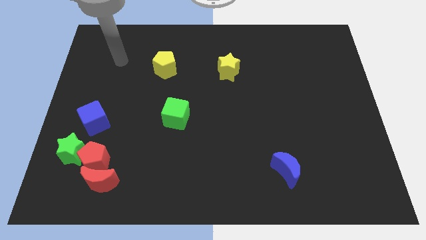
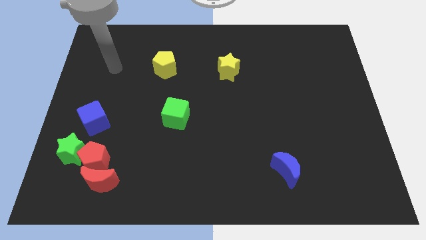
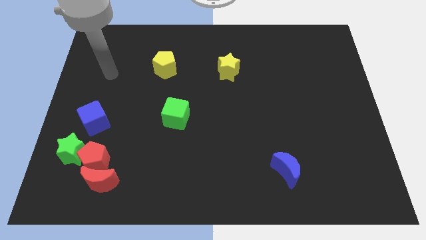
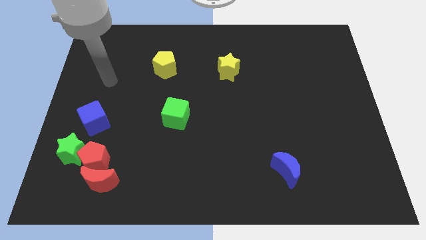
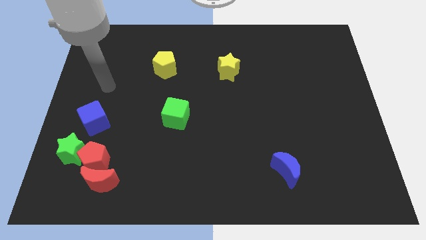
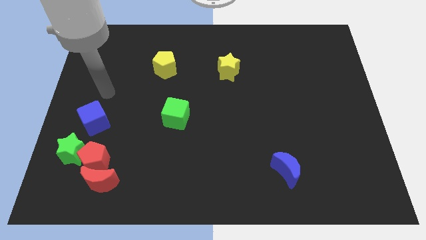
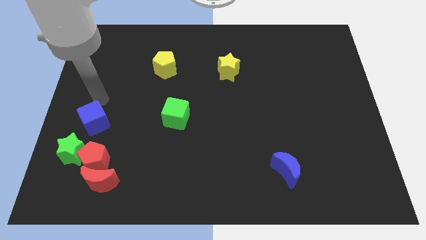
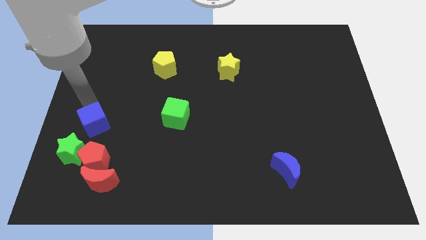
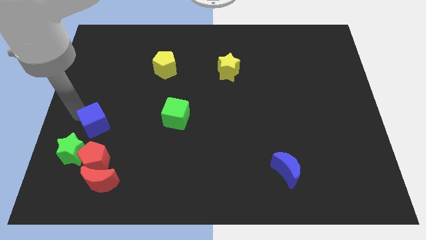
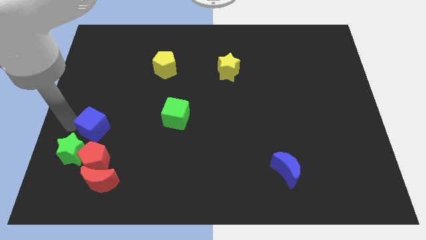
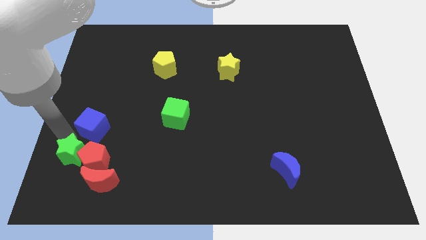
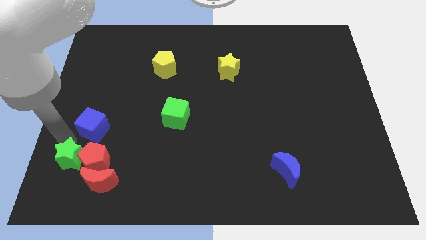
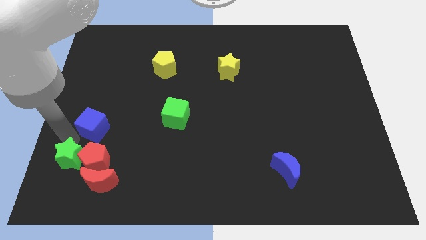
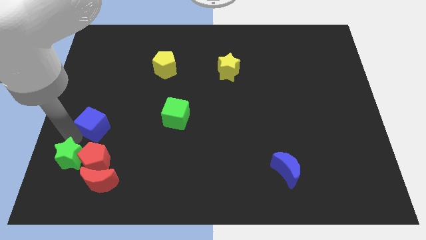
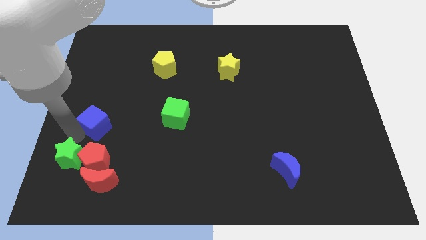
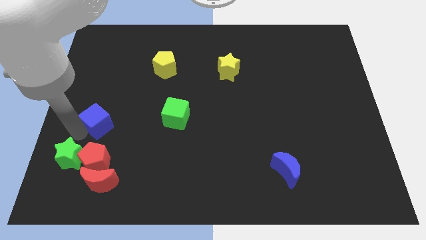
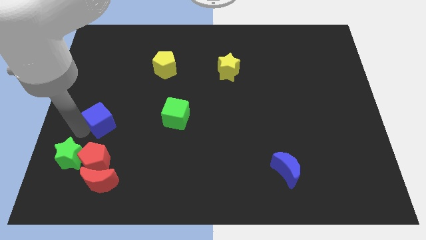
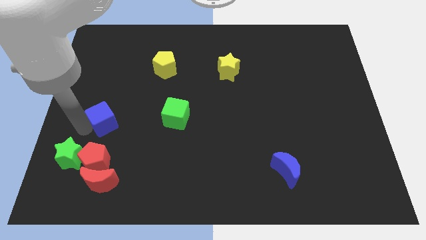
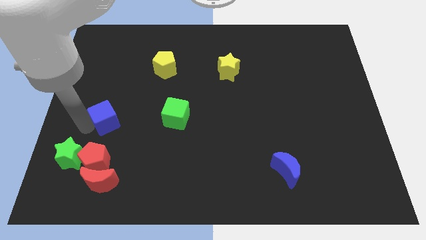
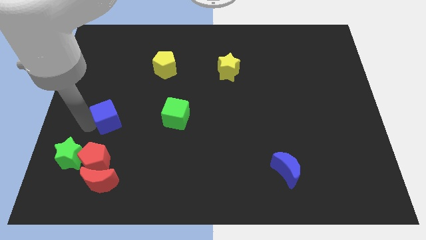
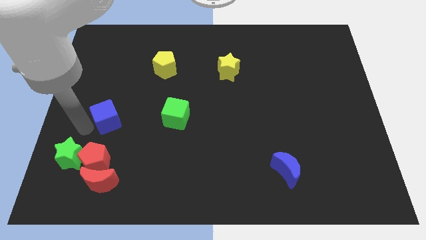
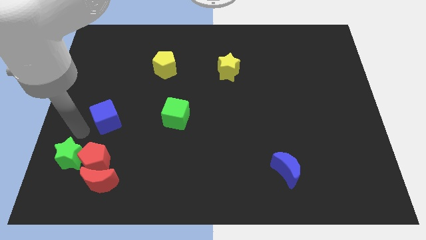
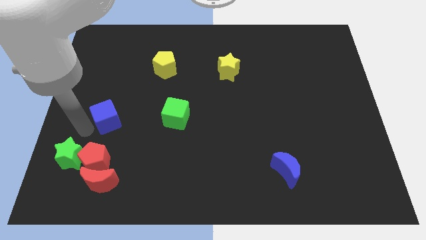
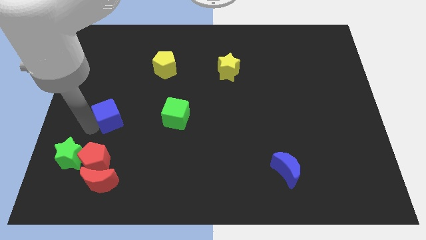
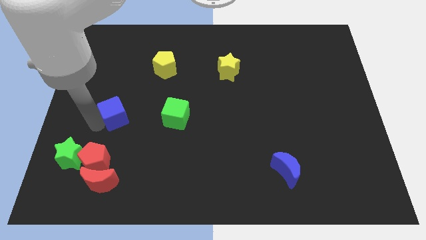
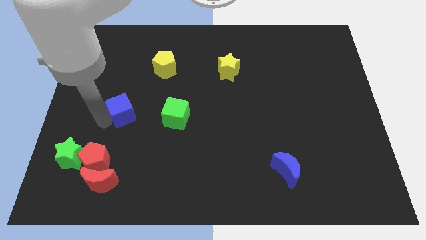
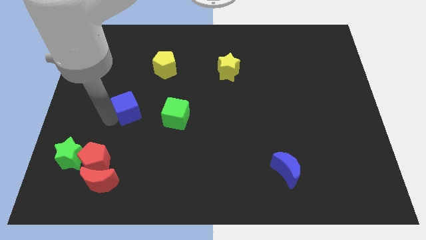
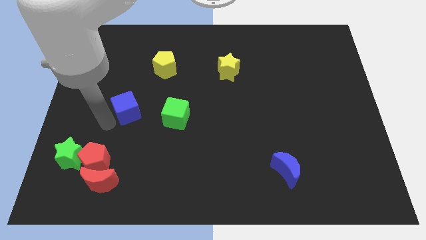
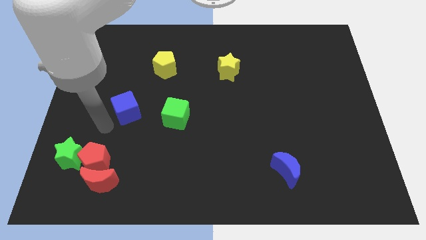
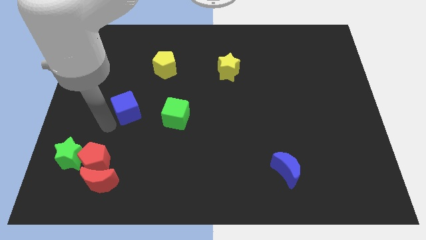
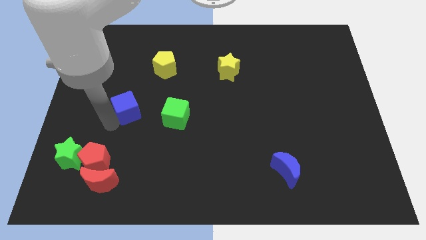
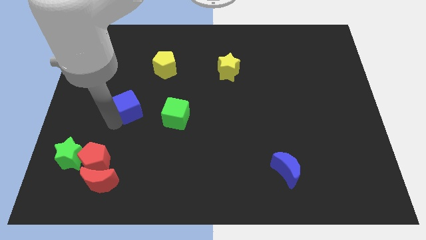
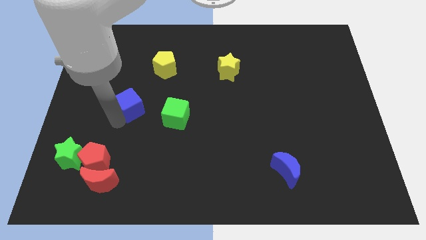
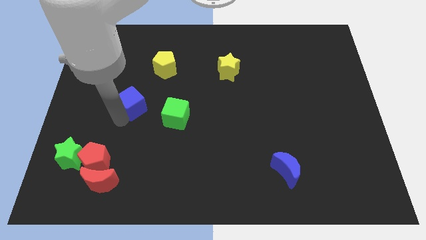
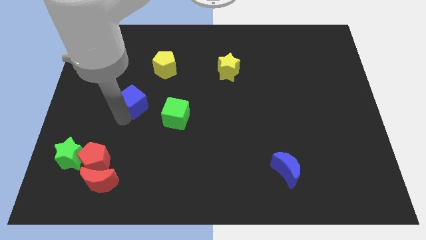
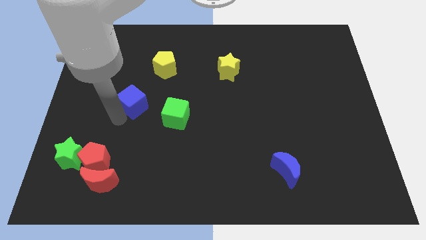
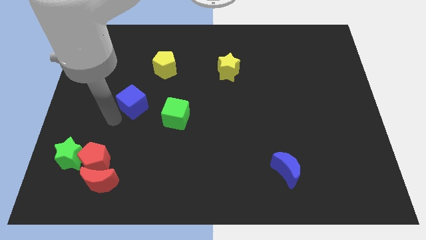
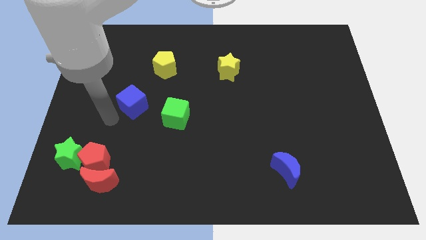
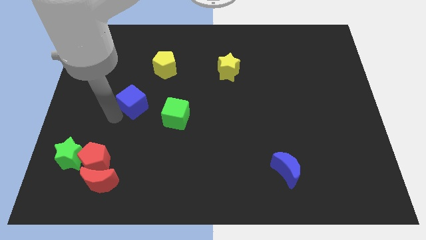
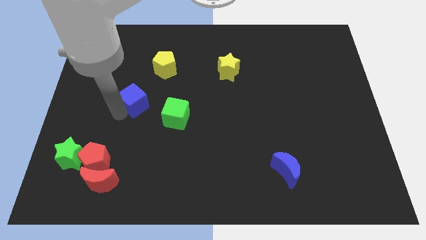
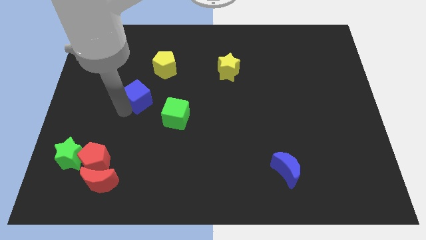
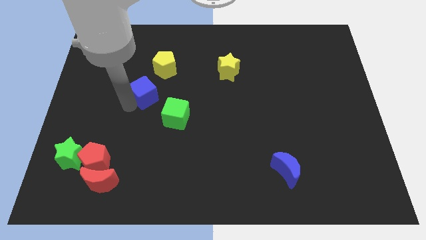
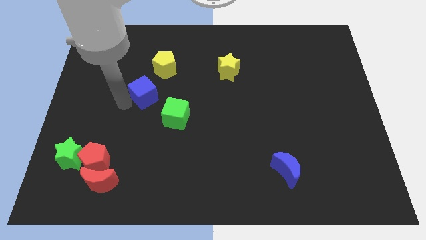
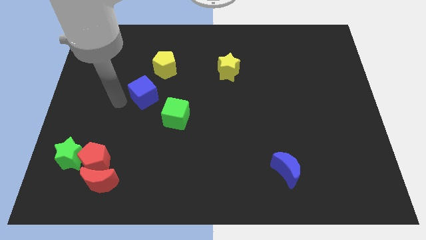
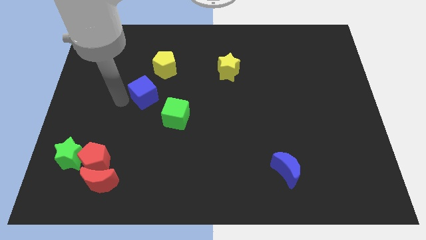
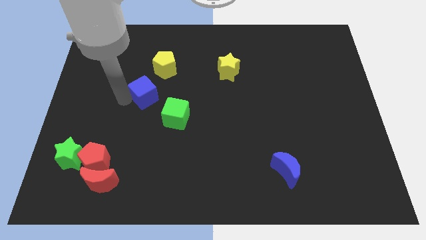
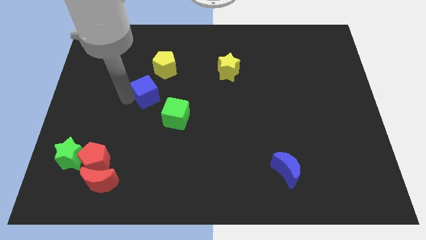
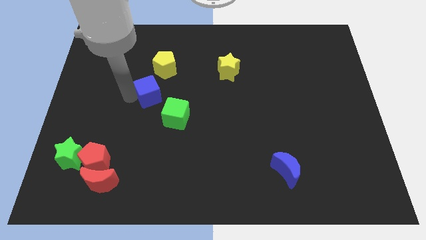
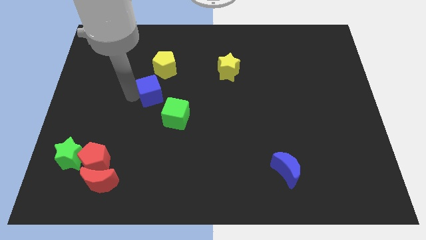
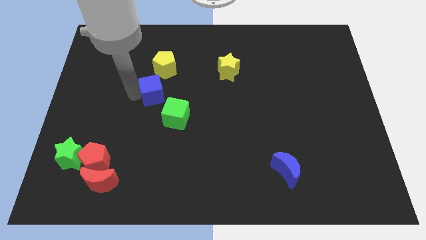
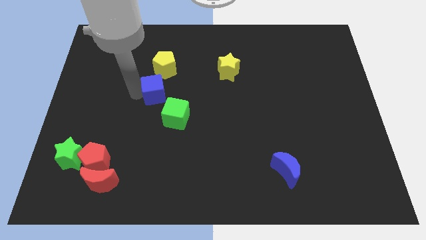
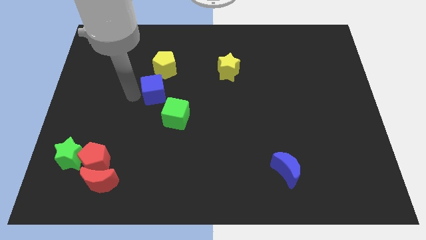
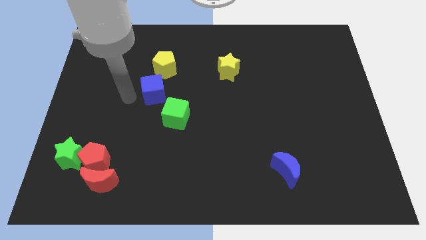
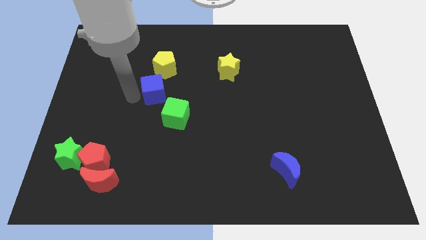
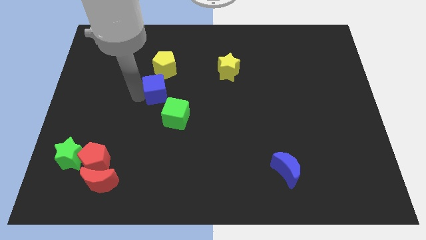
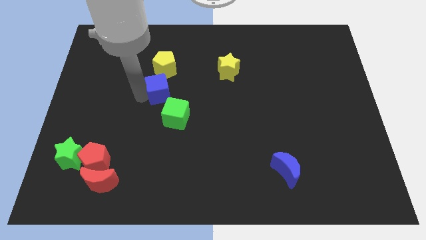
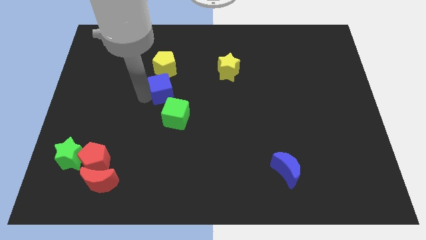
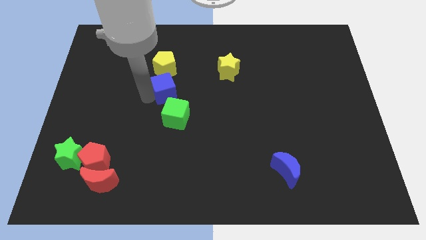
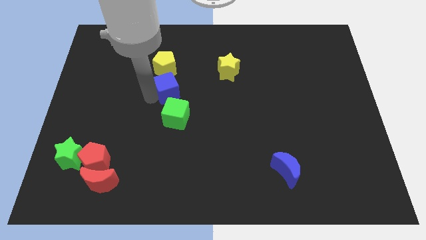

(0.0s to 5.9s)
move the blue cube to the bottom right side of the yellow pentagon

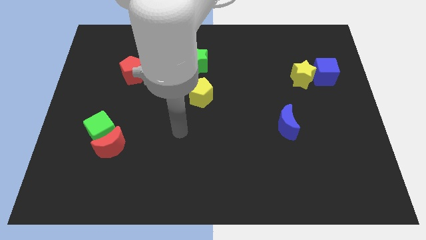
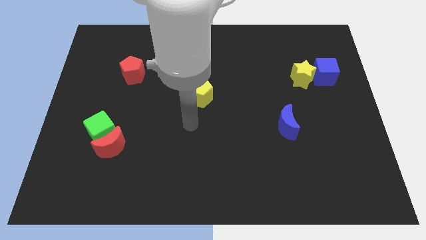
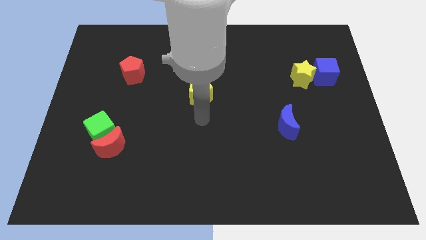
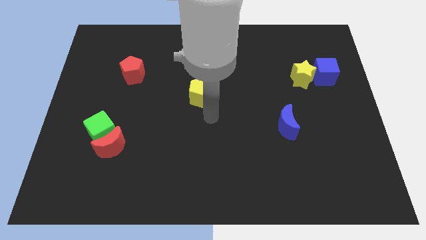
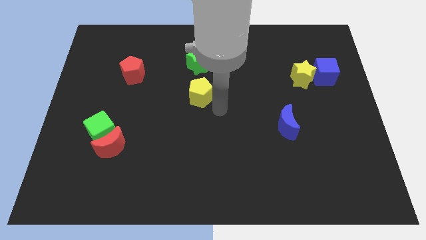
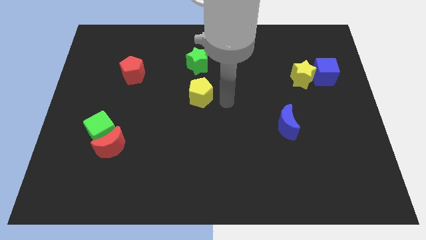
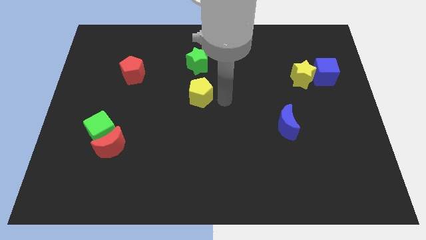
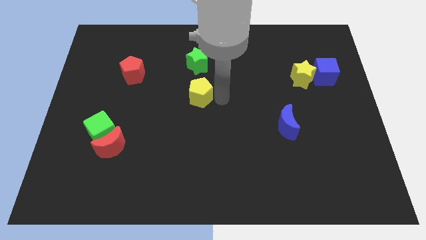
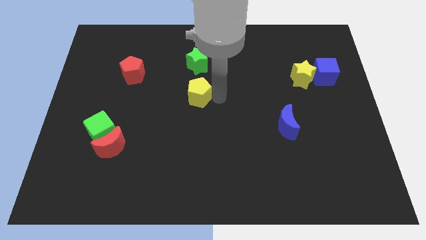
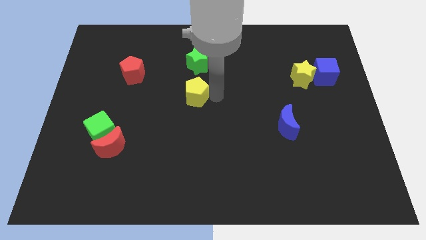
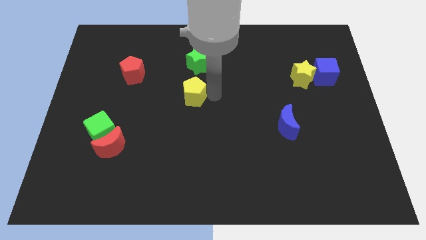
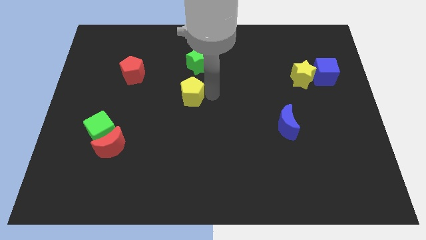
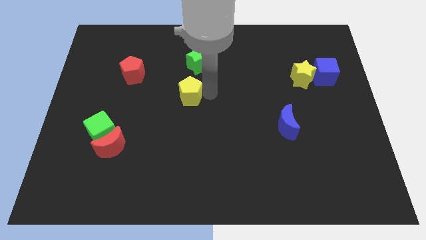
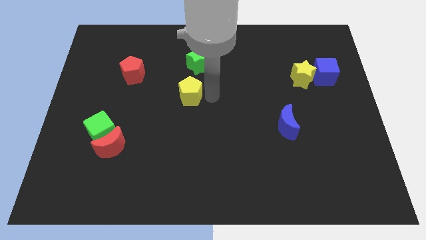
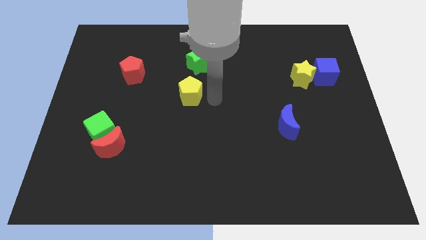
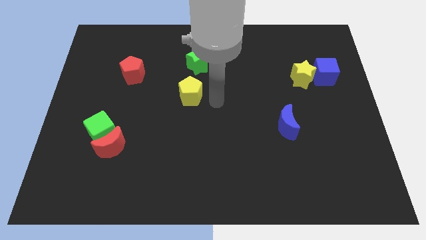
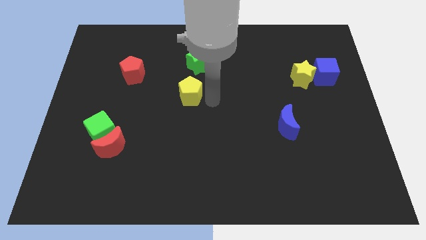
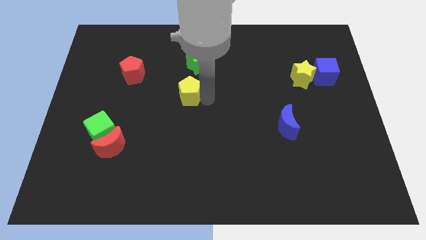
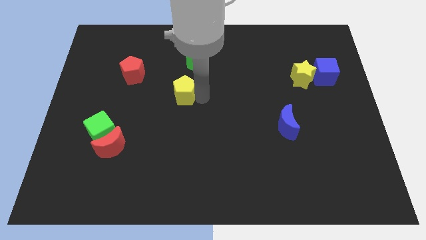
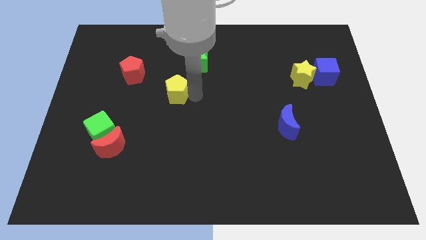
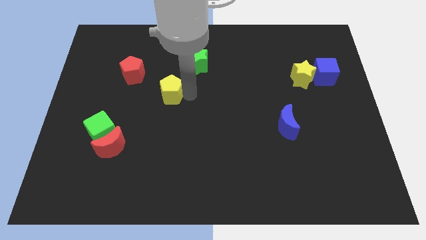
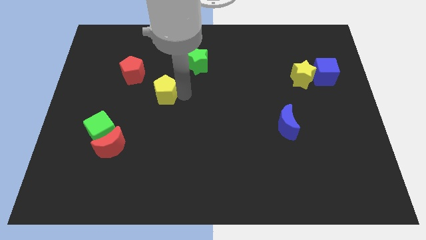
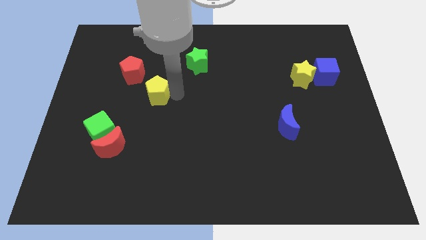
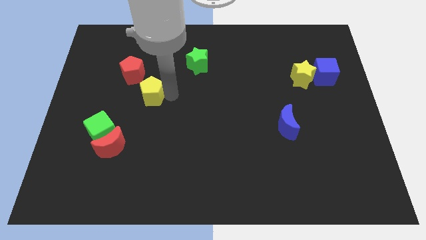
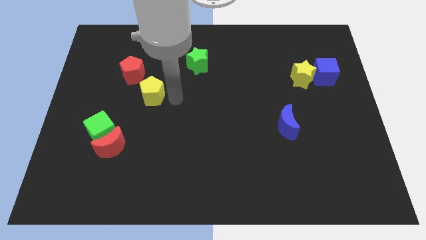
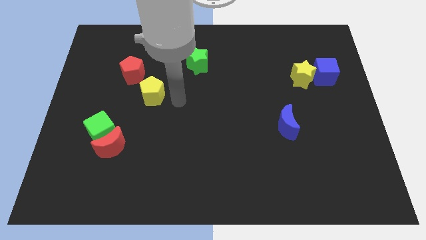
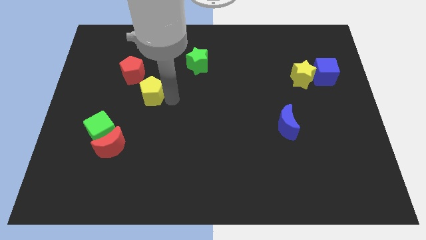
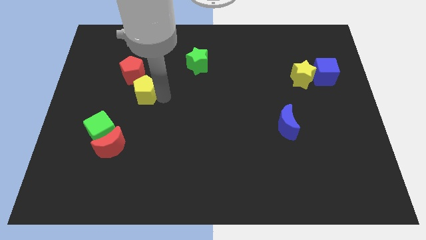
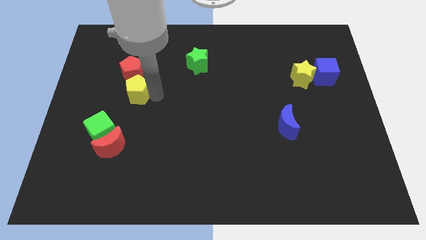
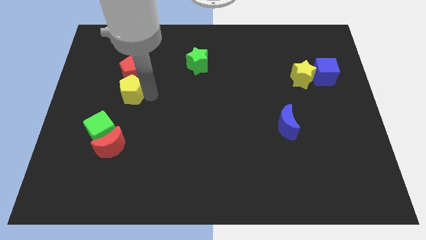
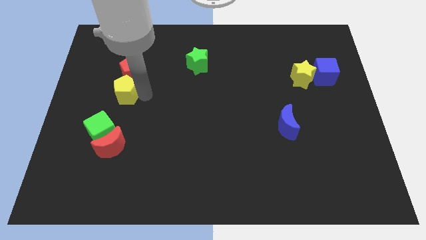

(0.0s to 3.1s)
push the yellow pentagon to the bottom left of the red pentagon
